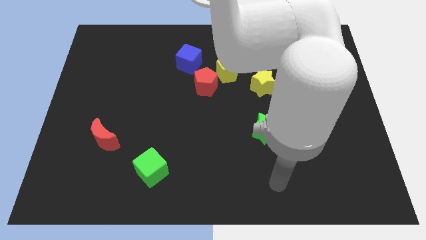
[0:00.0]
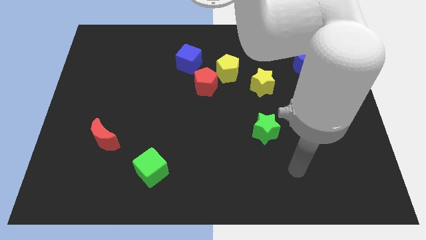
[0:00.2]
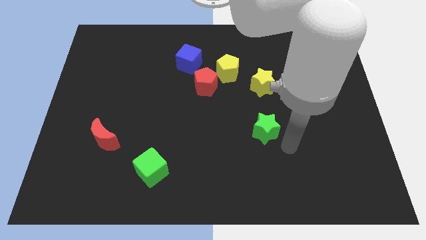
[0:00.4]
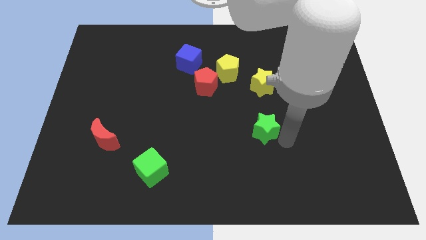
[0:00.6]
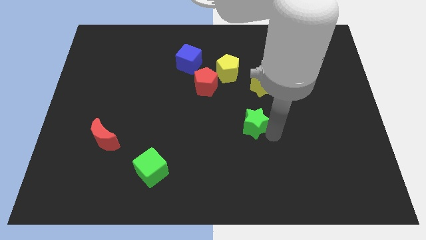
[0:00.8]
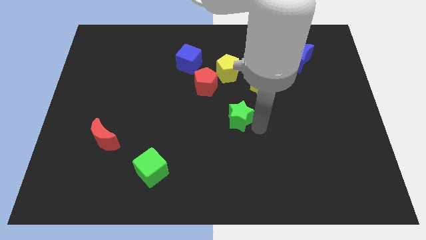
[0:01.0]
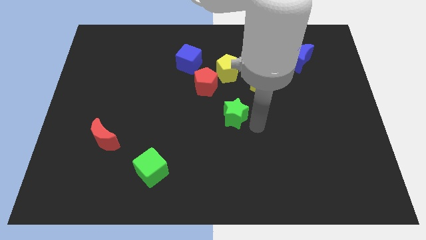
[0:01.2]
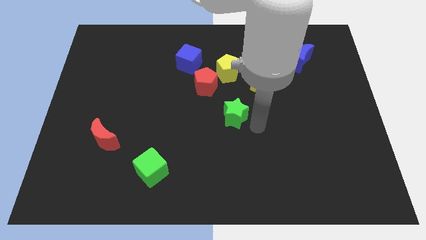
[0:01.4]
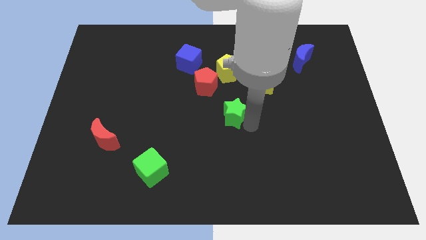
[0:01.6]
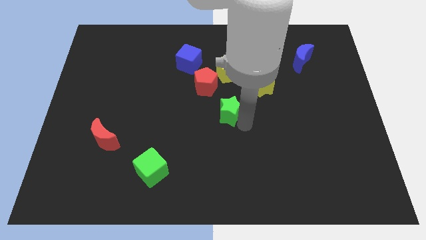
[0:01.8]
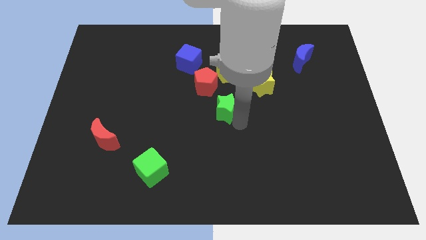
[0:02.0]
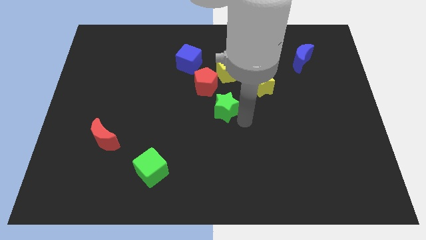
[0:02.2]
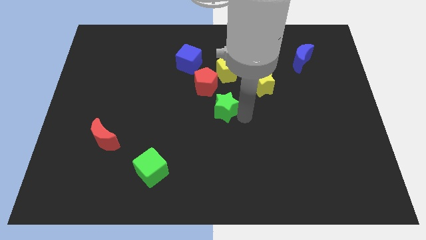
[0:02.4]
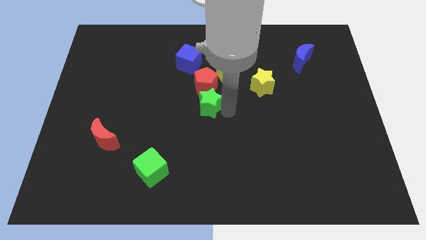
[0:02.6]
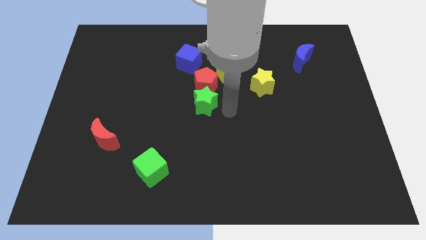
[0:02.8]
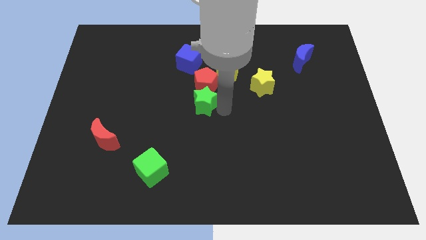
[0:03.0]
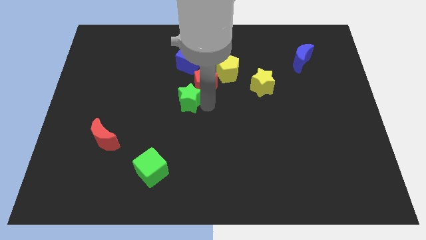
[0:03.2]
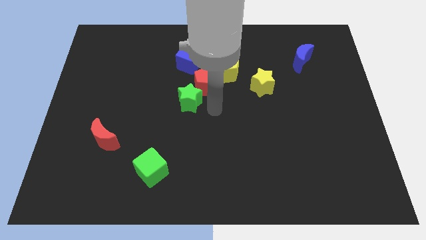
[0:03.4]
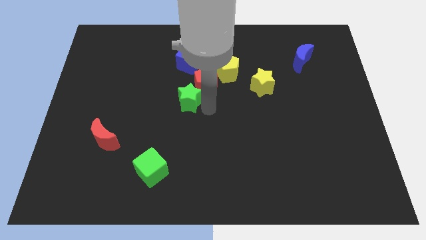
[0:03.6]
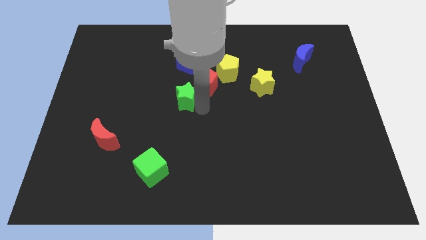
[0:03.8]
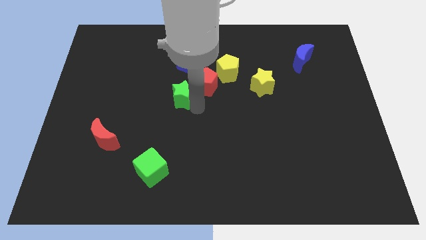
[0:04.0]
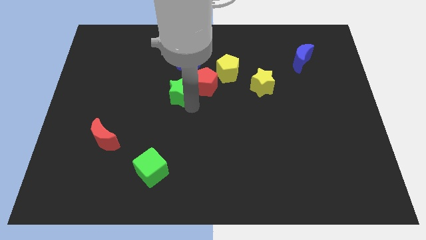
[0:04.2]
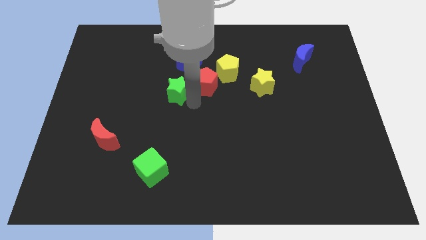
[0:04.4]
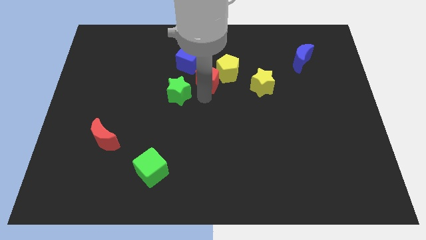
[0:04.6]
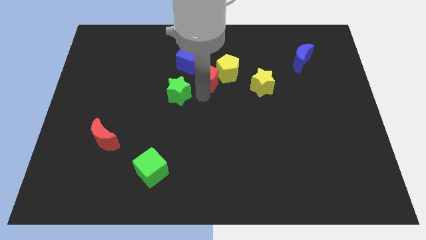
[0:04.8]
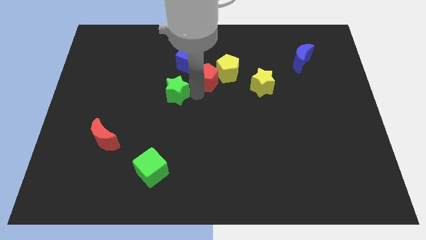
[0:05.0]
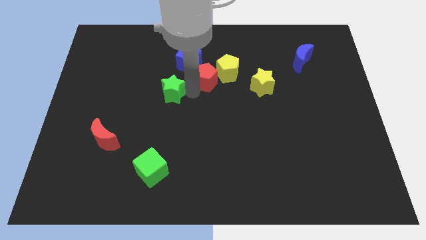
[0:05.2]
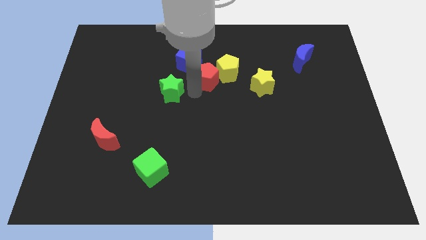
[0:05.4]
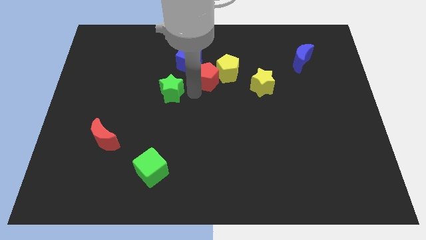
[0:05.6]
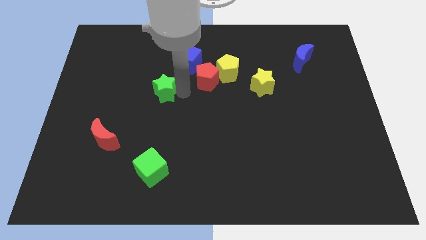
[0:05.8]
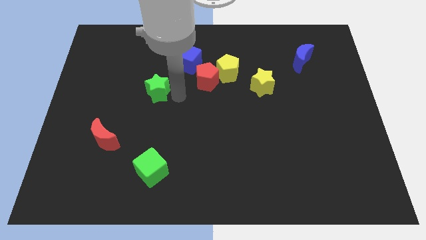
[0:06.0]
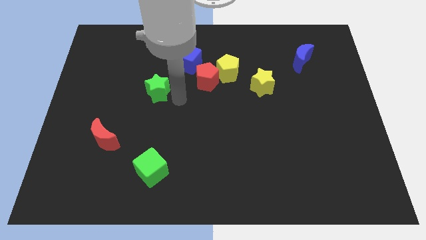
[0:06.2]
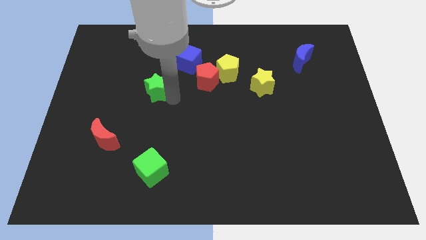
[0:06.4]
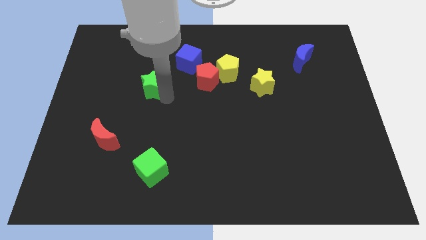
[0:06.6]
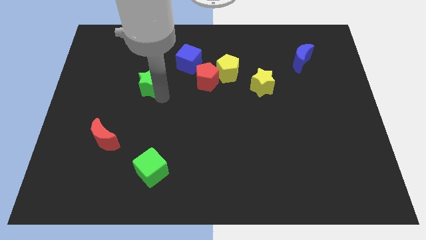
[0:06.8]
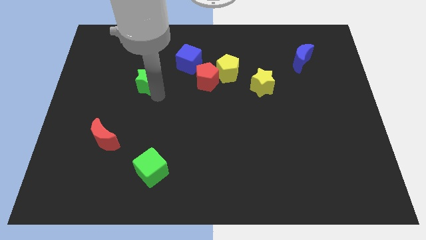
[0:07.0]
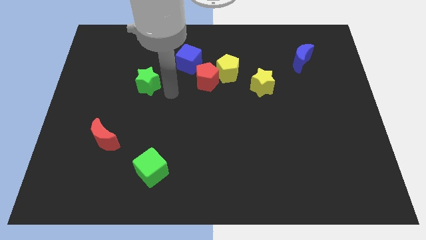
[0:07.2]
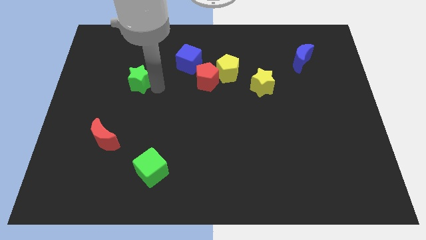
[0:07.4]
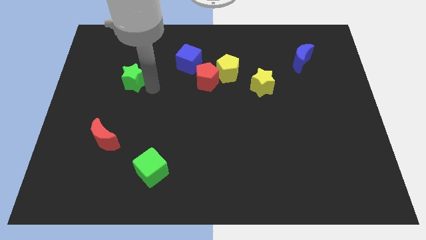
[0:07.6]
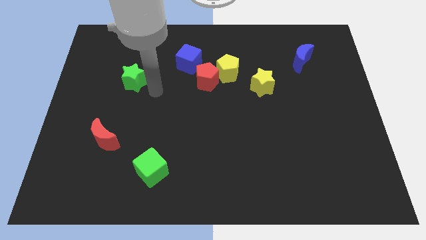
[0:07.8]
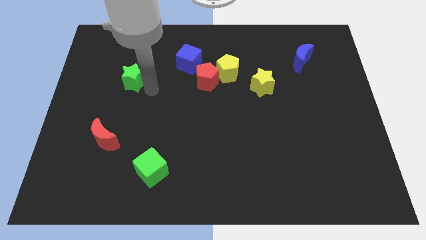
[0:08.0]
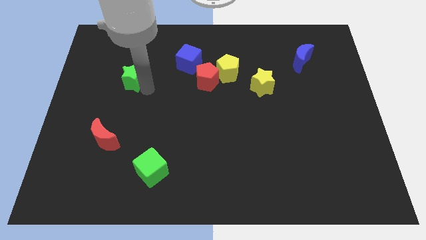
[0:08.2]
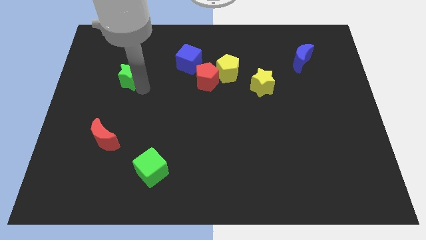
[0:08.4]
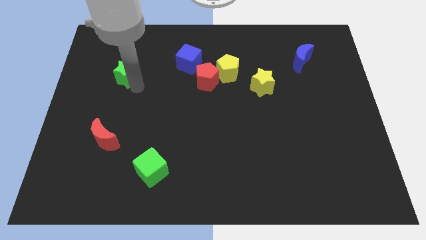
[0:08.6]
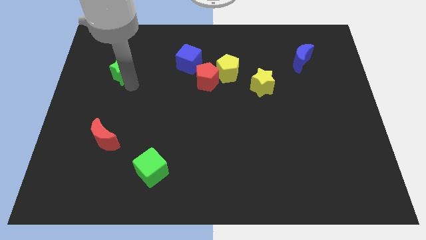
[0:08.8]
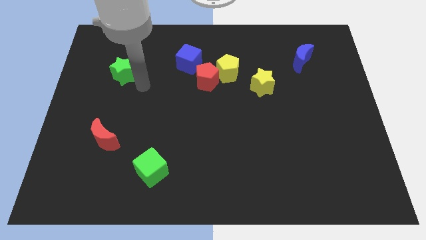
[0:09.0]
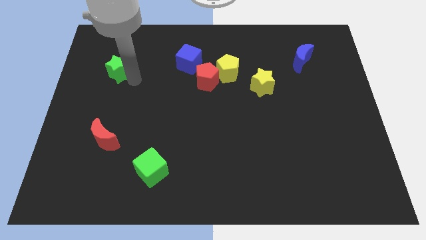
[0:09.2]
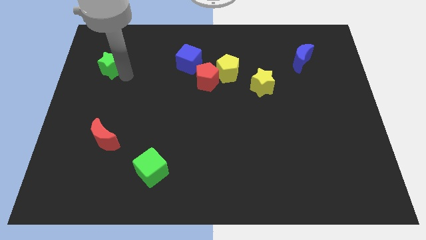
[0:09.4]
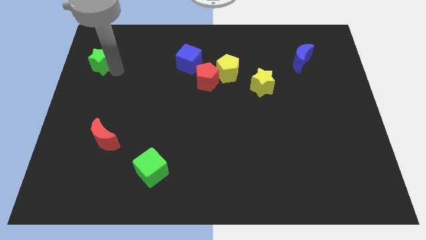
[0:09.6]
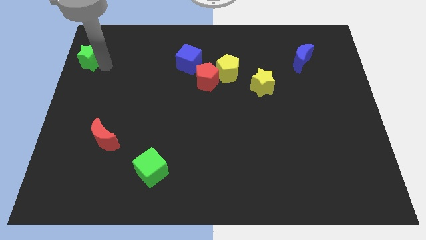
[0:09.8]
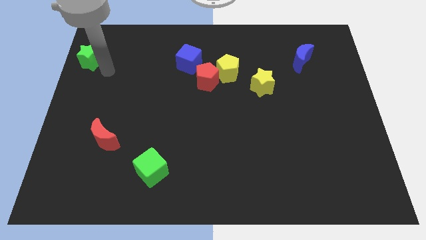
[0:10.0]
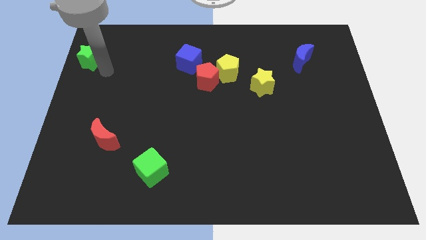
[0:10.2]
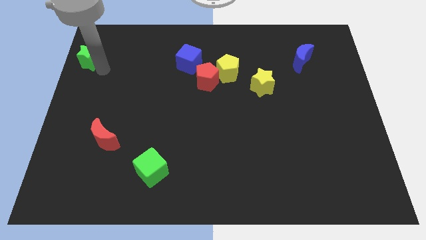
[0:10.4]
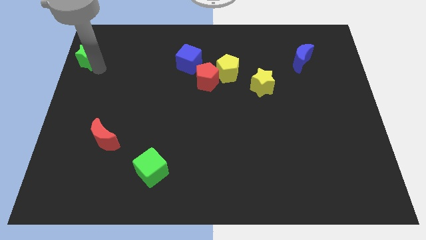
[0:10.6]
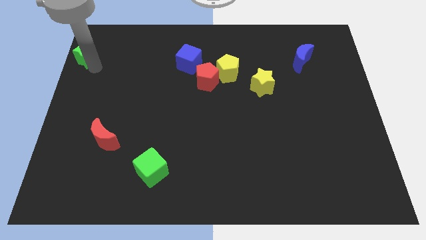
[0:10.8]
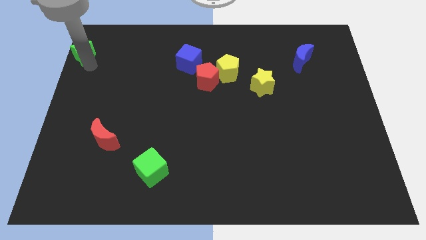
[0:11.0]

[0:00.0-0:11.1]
put the green star to the top left of the board
